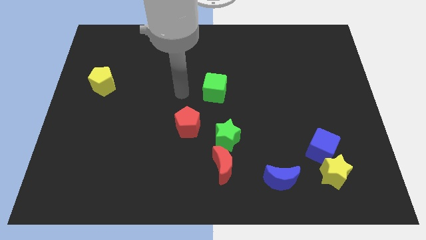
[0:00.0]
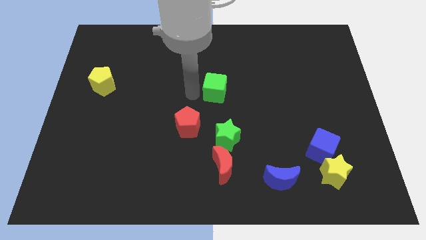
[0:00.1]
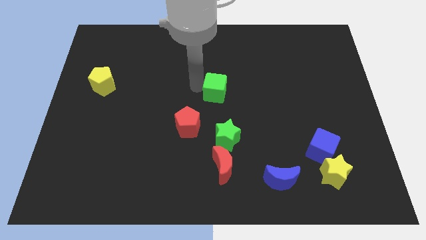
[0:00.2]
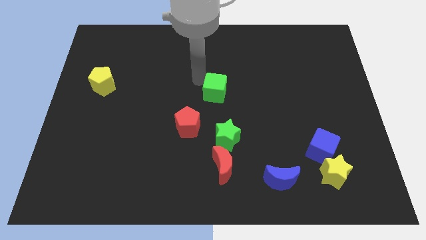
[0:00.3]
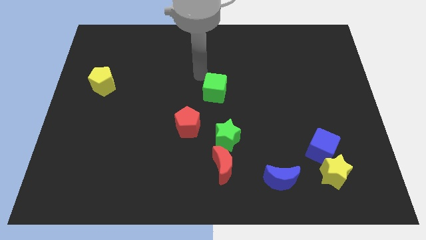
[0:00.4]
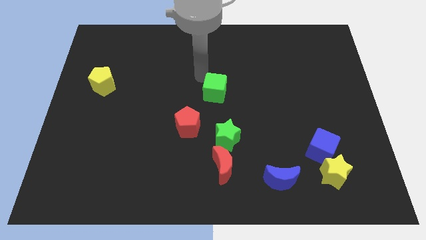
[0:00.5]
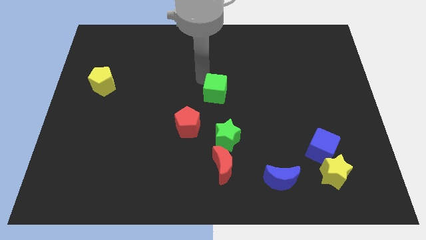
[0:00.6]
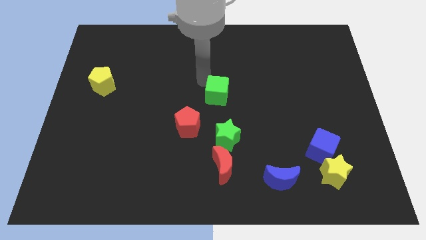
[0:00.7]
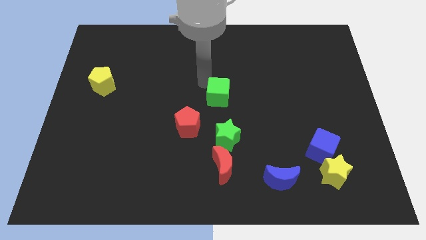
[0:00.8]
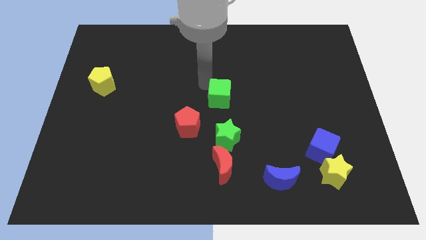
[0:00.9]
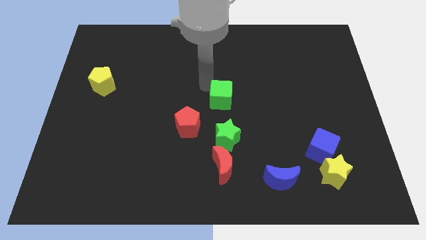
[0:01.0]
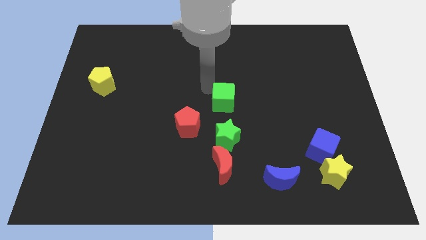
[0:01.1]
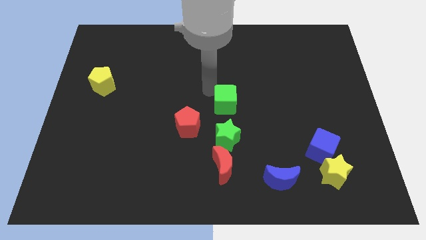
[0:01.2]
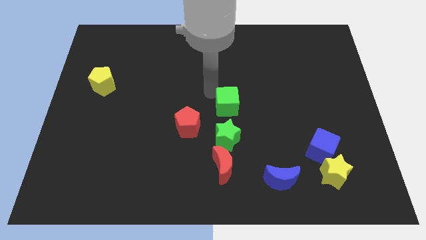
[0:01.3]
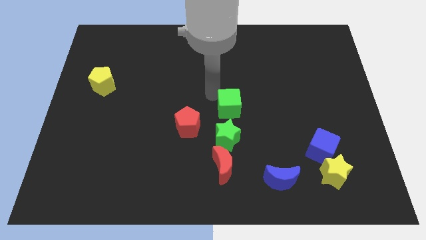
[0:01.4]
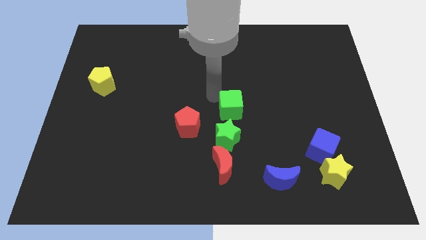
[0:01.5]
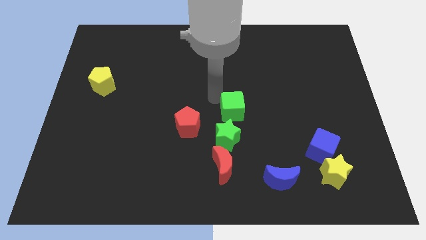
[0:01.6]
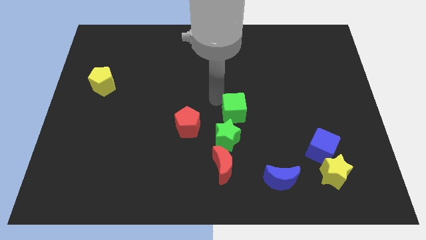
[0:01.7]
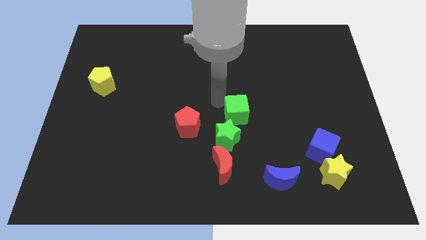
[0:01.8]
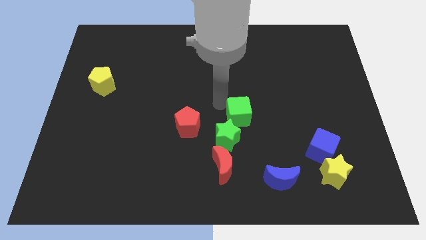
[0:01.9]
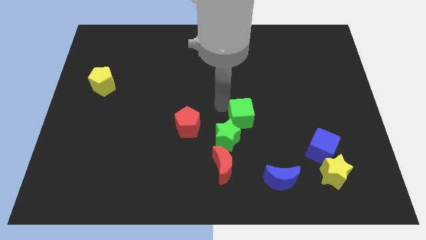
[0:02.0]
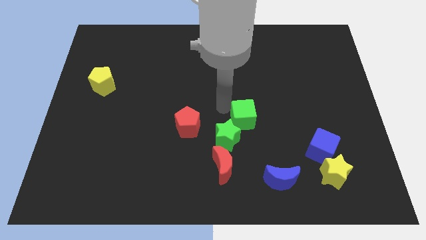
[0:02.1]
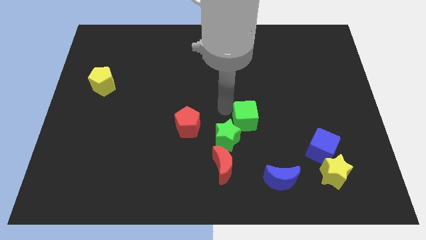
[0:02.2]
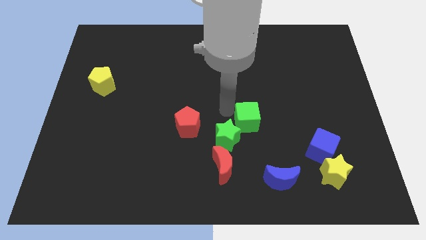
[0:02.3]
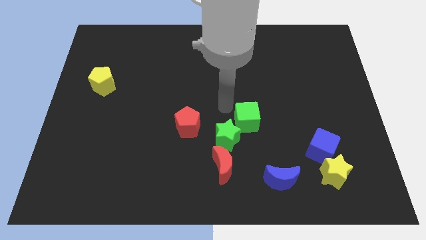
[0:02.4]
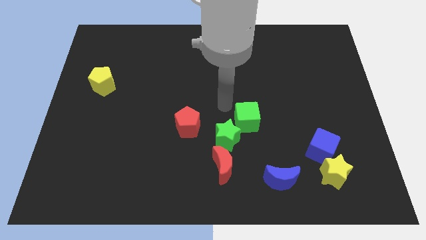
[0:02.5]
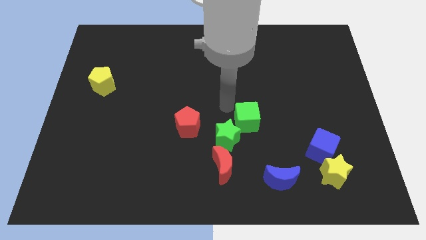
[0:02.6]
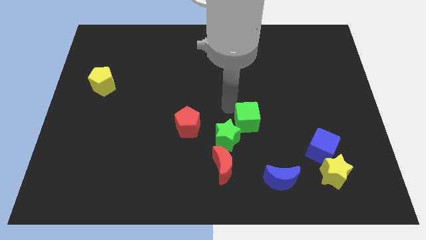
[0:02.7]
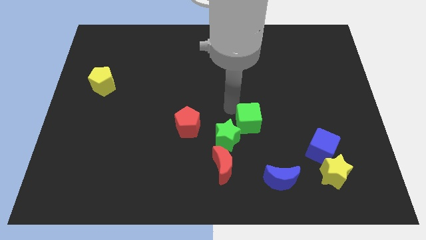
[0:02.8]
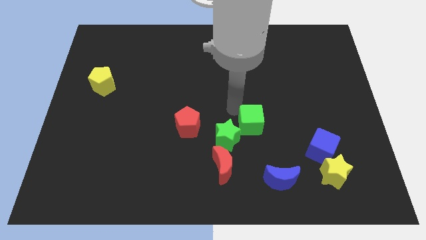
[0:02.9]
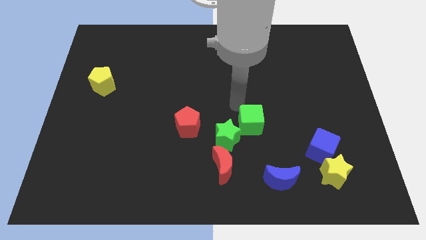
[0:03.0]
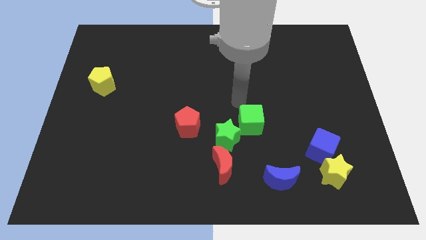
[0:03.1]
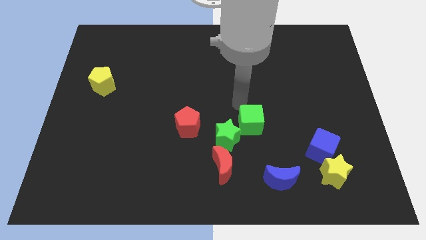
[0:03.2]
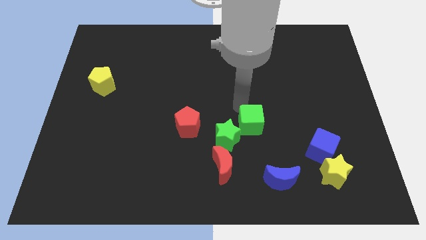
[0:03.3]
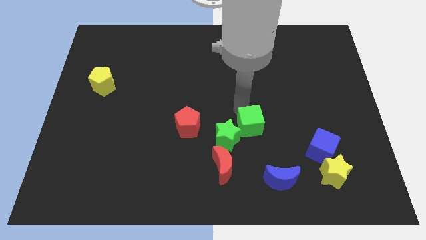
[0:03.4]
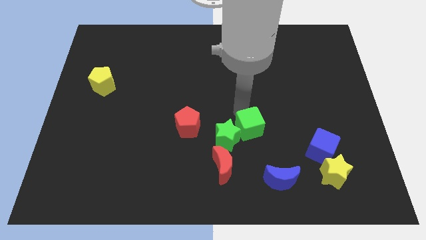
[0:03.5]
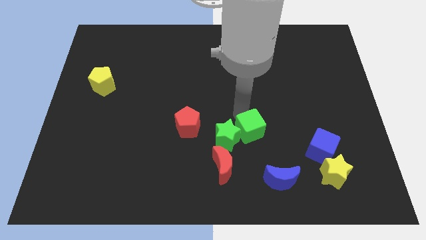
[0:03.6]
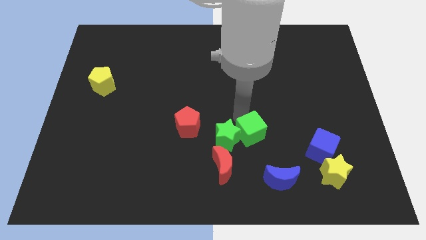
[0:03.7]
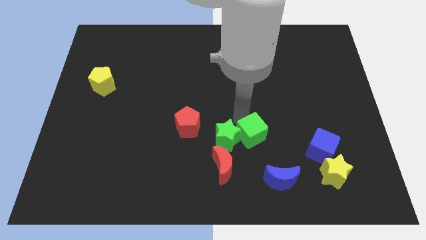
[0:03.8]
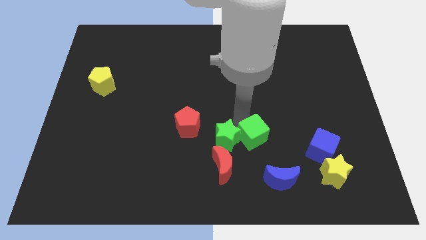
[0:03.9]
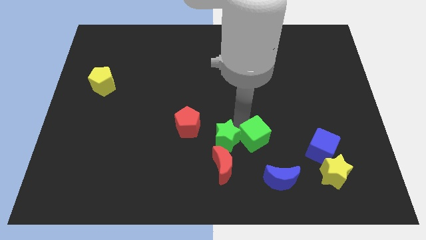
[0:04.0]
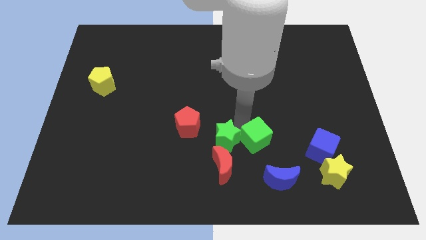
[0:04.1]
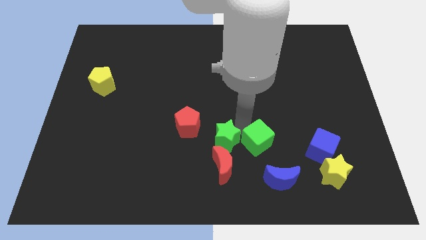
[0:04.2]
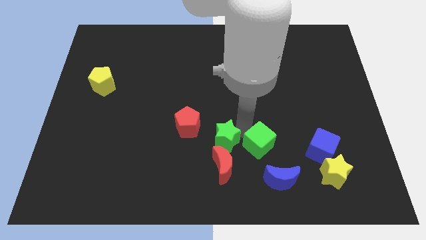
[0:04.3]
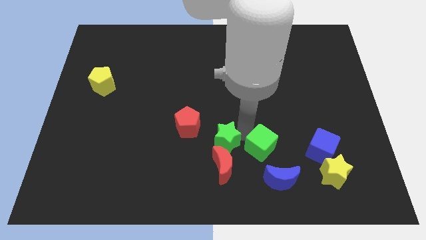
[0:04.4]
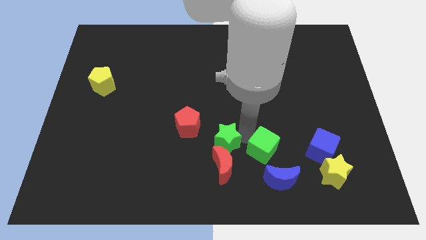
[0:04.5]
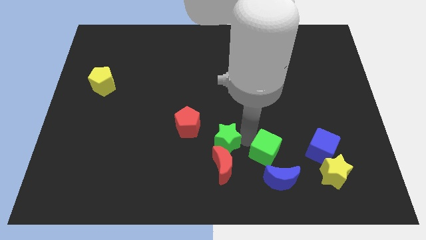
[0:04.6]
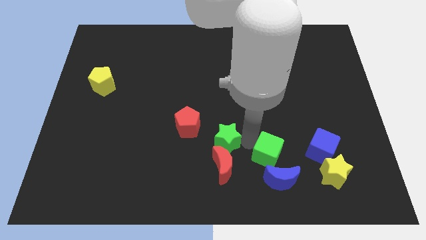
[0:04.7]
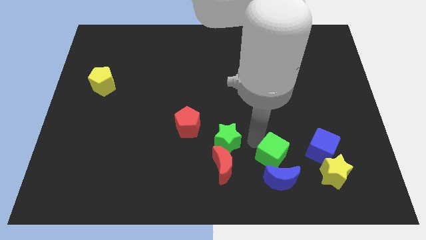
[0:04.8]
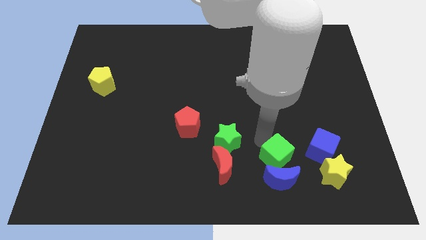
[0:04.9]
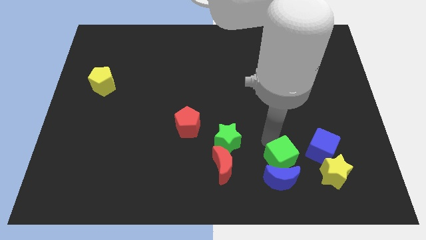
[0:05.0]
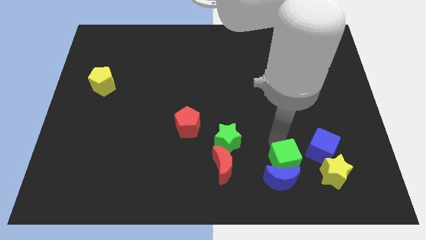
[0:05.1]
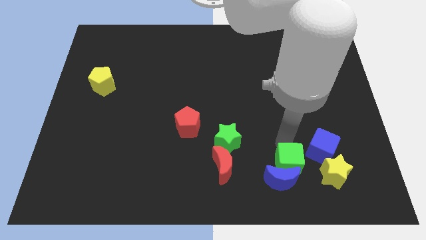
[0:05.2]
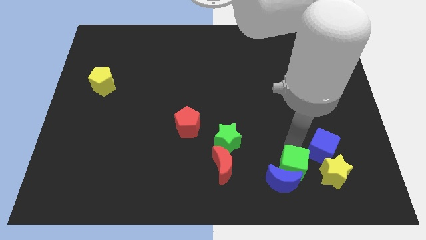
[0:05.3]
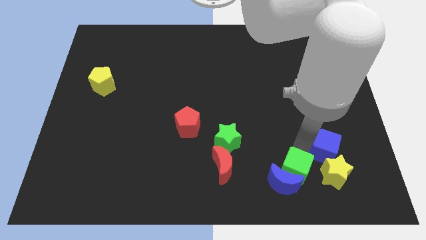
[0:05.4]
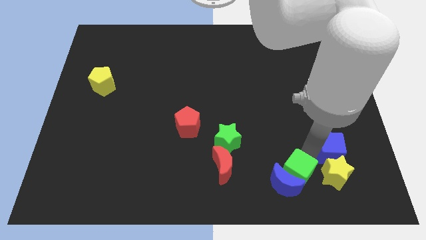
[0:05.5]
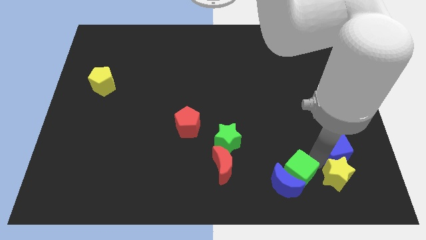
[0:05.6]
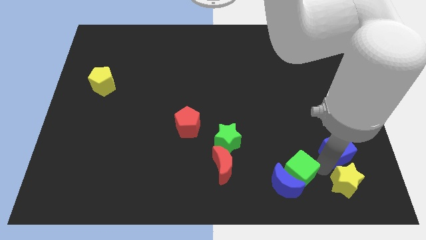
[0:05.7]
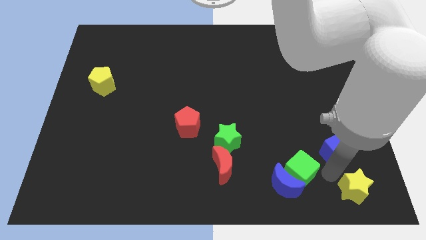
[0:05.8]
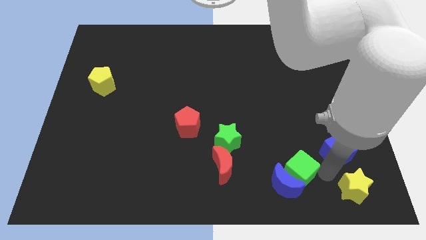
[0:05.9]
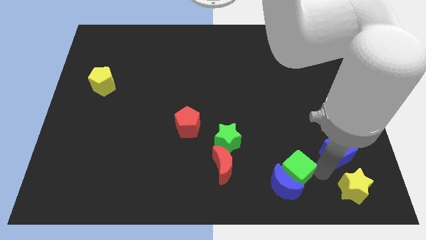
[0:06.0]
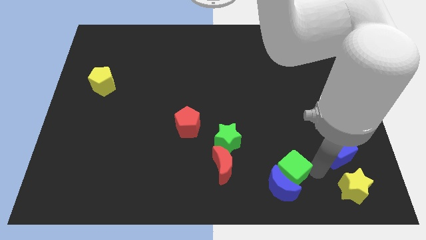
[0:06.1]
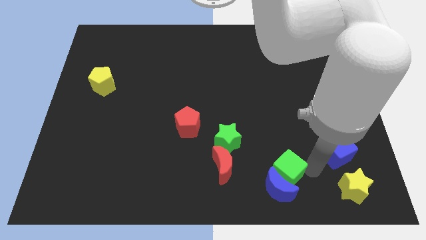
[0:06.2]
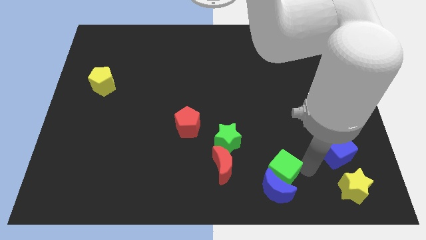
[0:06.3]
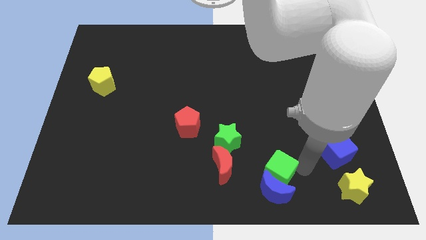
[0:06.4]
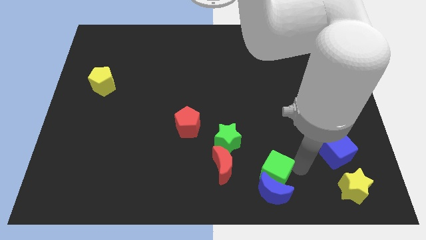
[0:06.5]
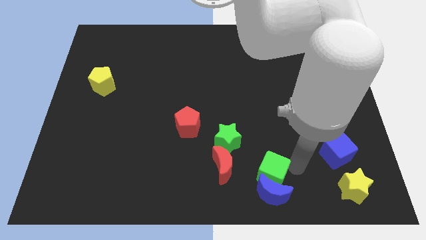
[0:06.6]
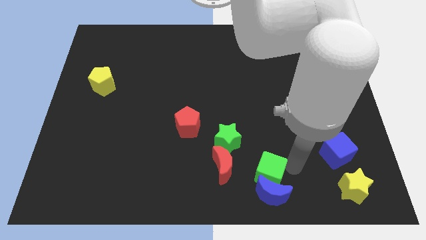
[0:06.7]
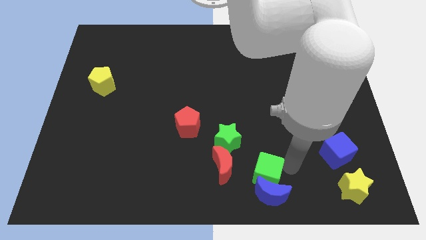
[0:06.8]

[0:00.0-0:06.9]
put the green cube to the bottom side
